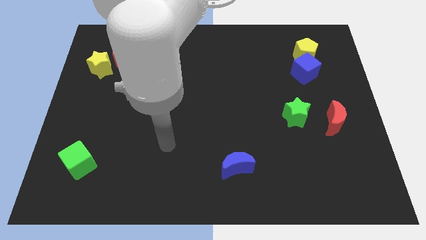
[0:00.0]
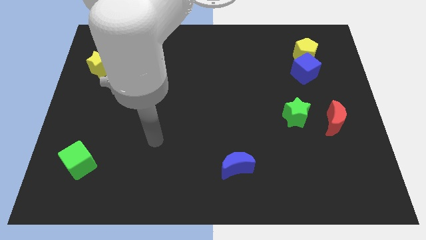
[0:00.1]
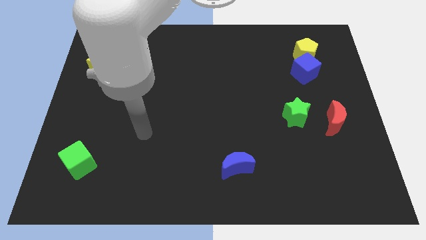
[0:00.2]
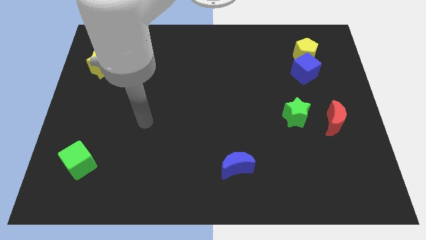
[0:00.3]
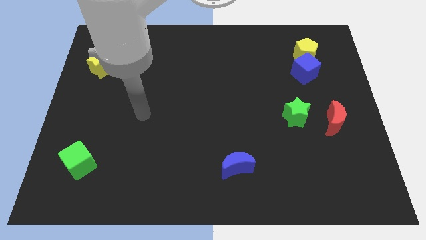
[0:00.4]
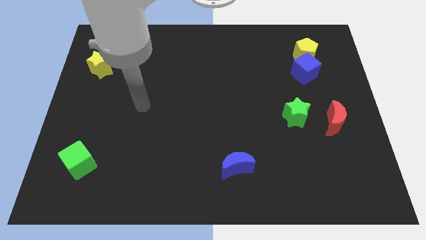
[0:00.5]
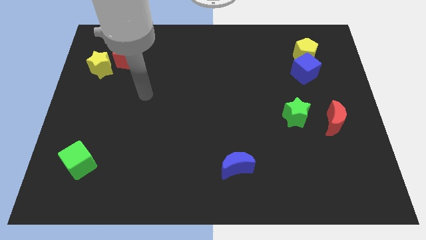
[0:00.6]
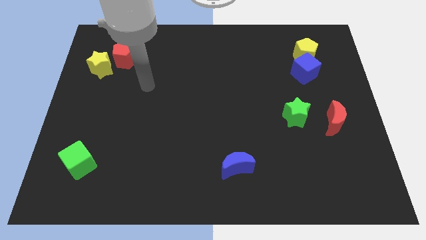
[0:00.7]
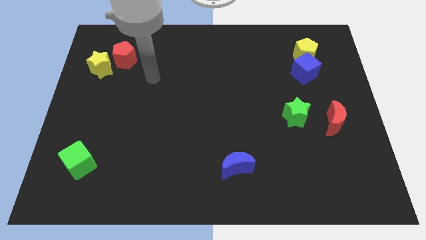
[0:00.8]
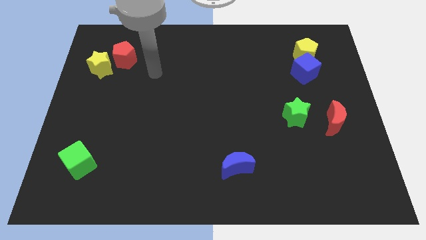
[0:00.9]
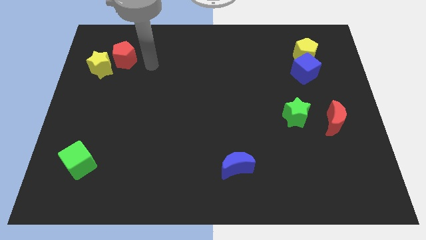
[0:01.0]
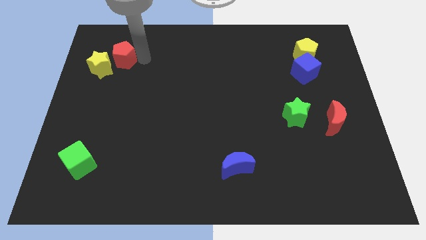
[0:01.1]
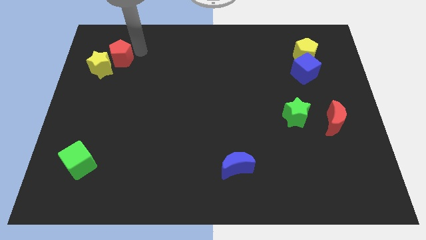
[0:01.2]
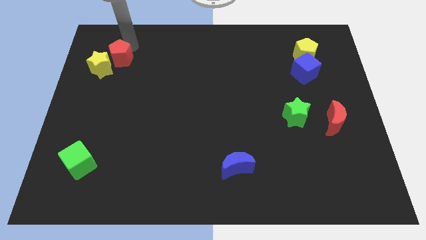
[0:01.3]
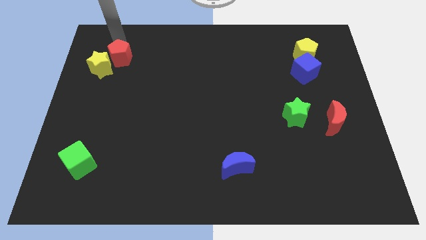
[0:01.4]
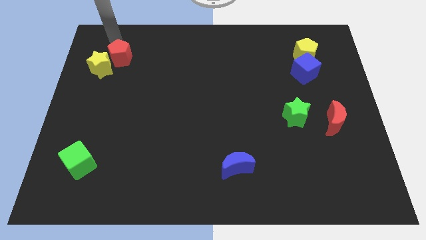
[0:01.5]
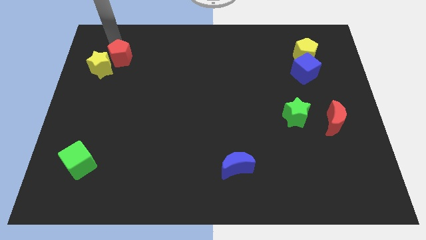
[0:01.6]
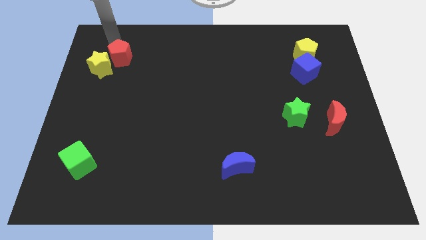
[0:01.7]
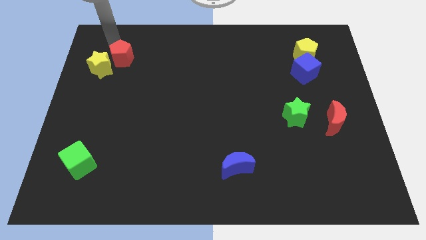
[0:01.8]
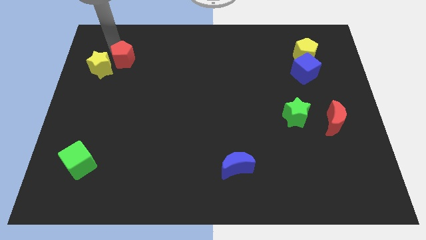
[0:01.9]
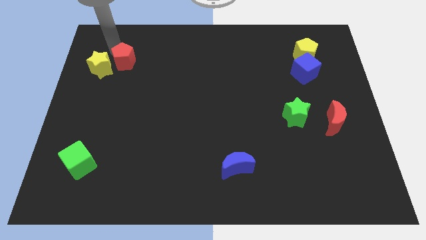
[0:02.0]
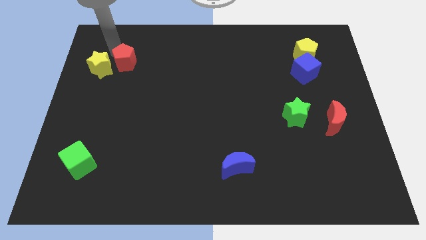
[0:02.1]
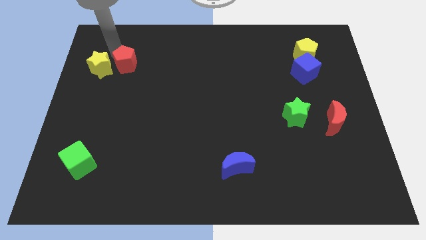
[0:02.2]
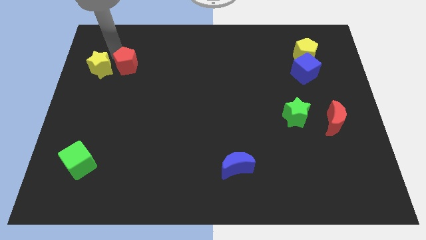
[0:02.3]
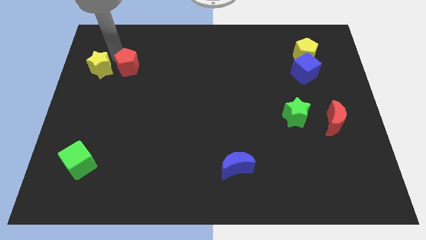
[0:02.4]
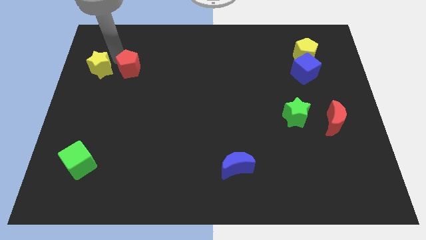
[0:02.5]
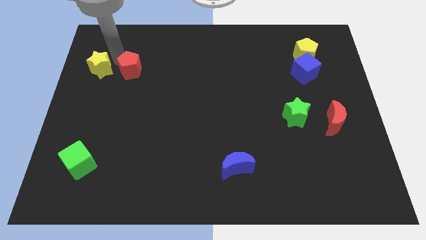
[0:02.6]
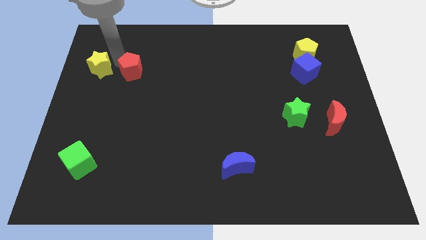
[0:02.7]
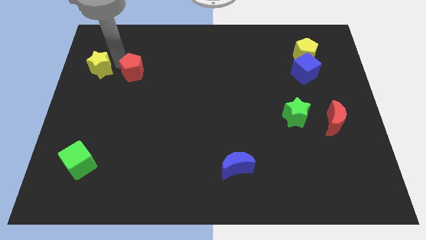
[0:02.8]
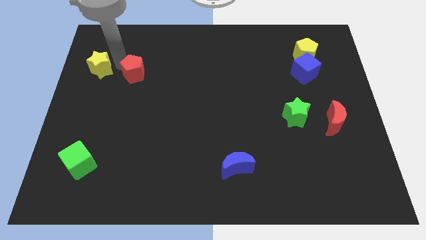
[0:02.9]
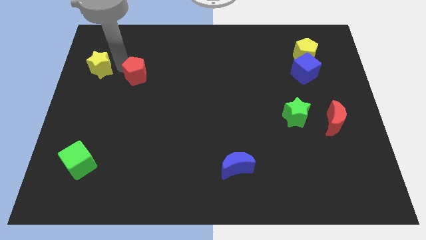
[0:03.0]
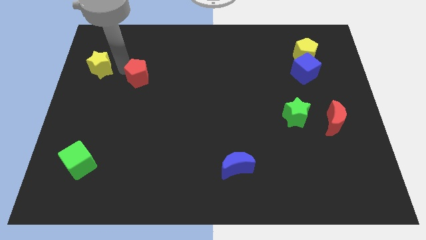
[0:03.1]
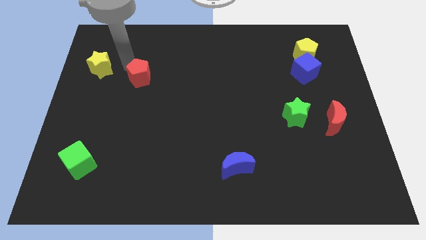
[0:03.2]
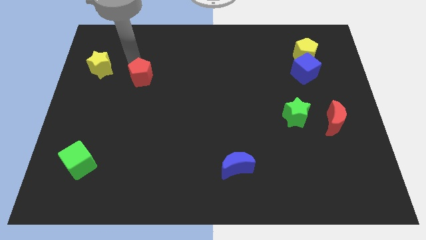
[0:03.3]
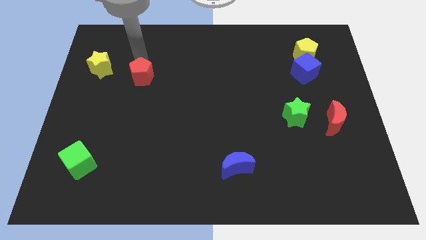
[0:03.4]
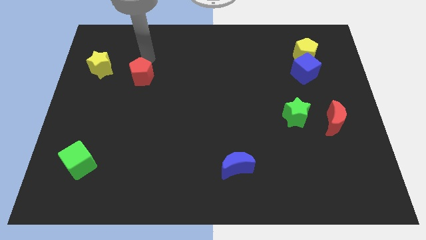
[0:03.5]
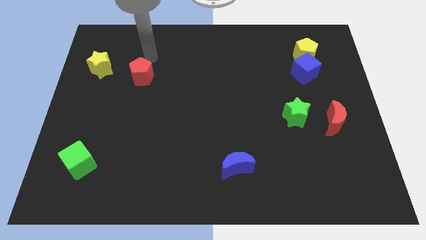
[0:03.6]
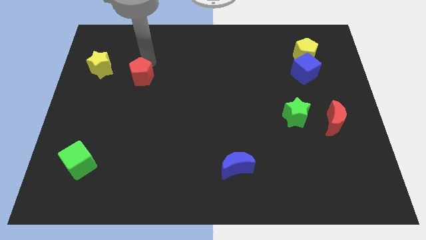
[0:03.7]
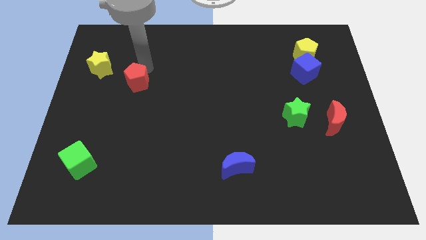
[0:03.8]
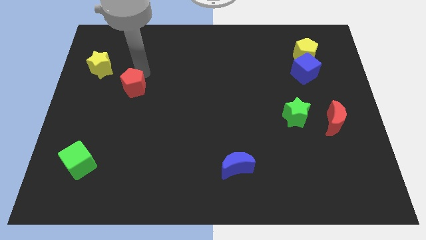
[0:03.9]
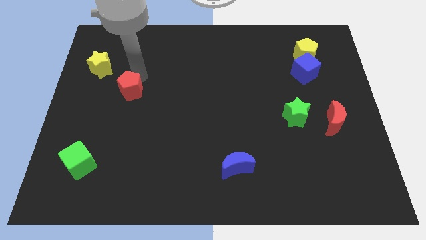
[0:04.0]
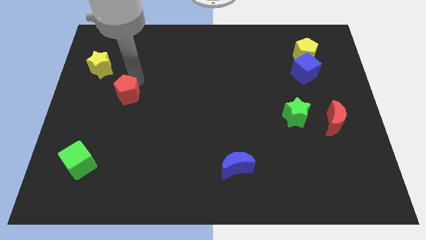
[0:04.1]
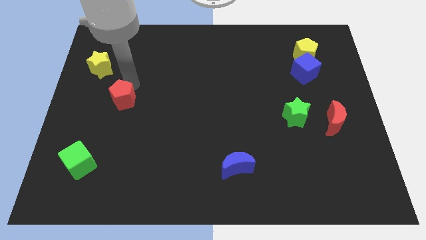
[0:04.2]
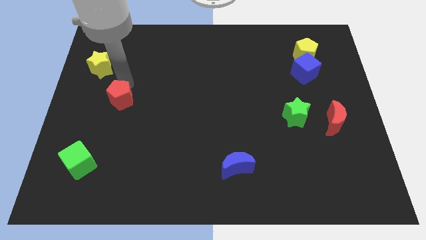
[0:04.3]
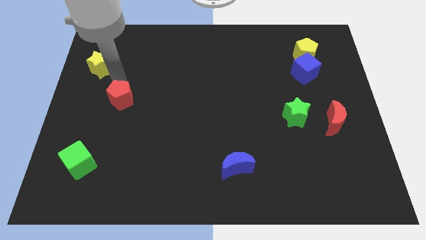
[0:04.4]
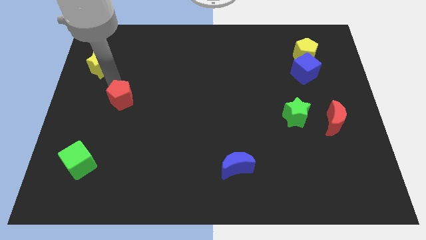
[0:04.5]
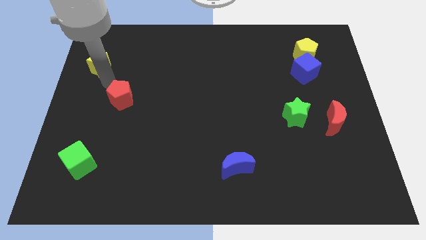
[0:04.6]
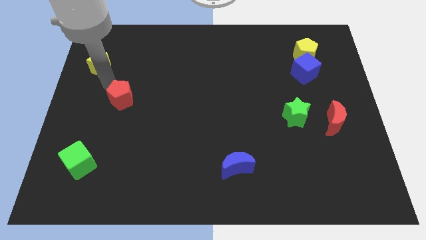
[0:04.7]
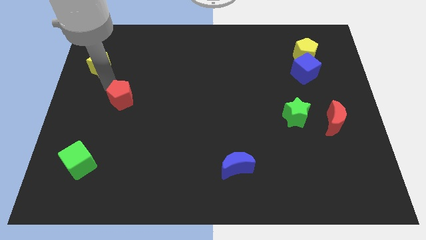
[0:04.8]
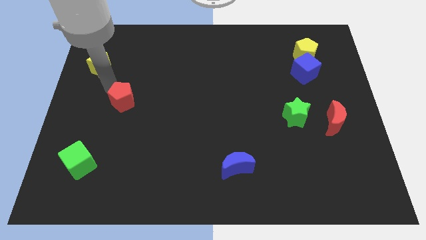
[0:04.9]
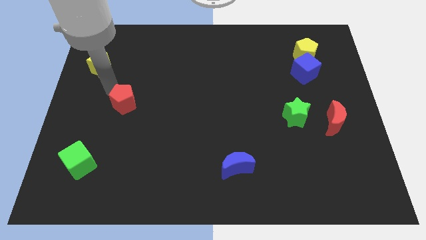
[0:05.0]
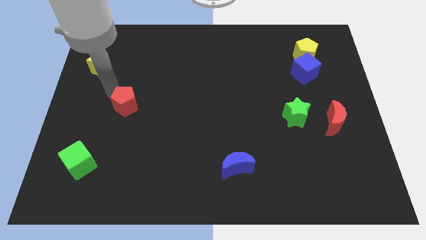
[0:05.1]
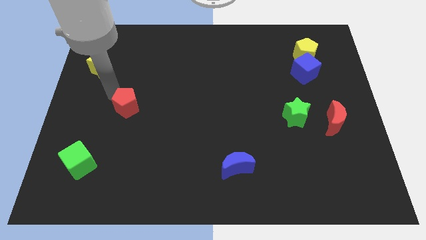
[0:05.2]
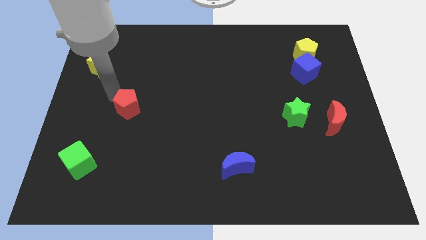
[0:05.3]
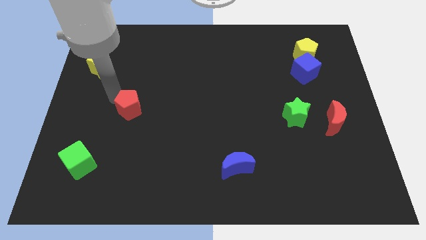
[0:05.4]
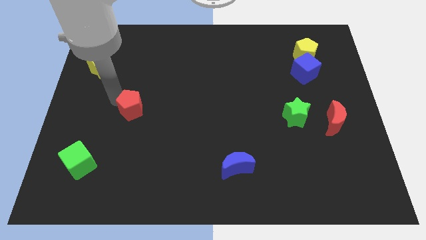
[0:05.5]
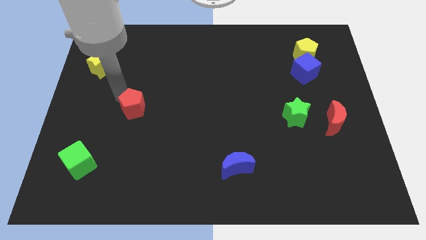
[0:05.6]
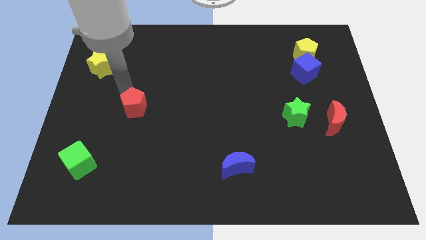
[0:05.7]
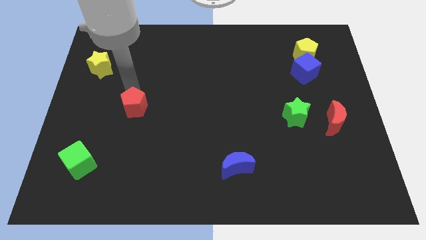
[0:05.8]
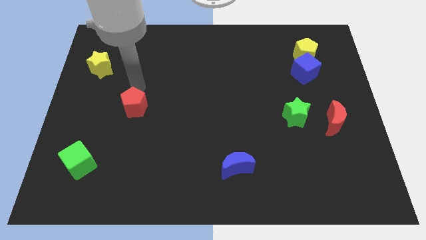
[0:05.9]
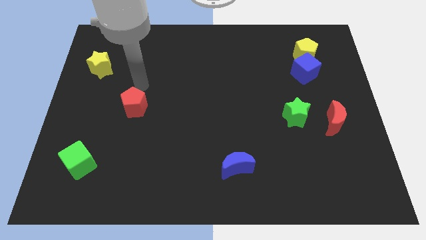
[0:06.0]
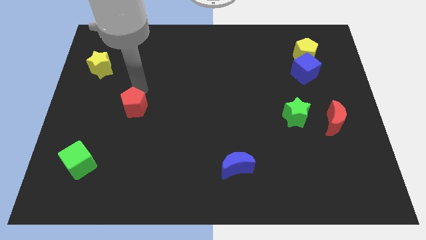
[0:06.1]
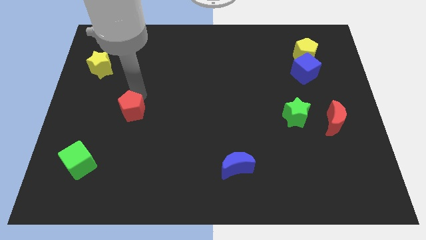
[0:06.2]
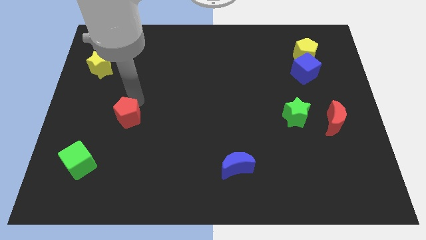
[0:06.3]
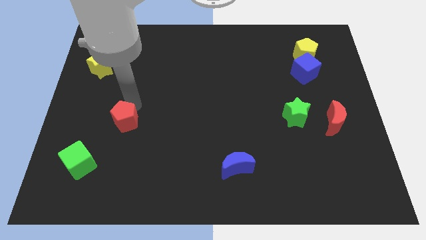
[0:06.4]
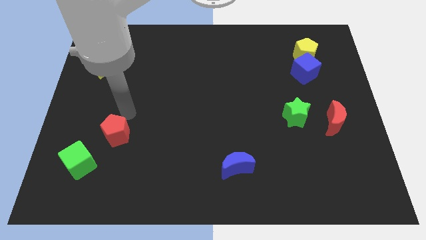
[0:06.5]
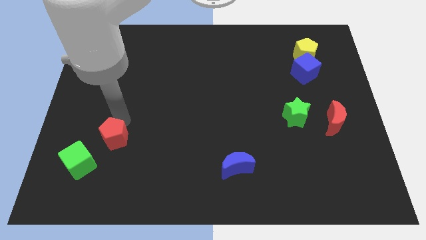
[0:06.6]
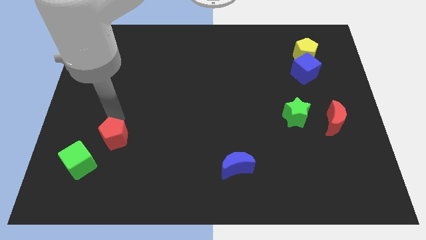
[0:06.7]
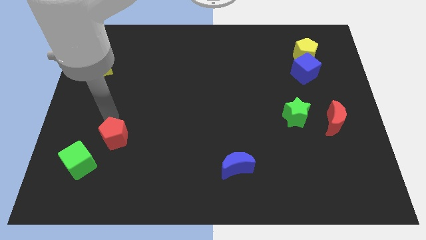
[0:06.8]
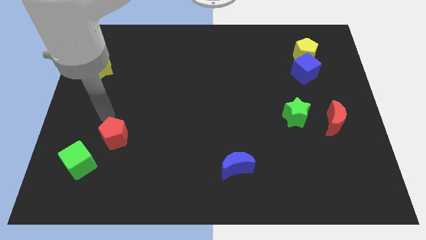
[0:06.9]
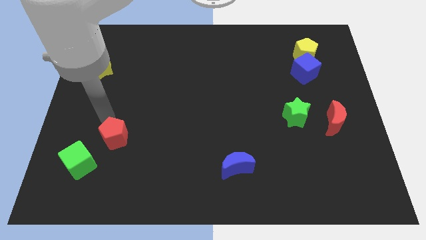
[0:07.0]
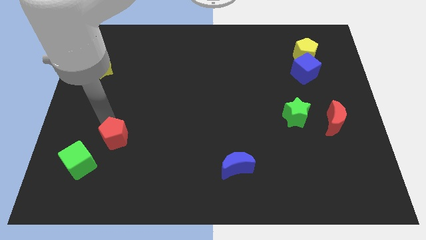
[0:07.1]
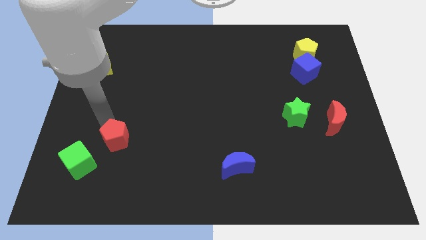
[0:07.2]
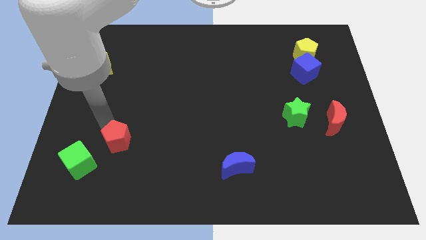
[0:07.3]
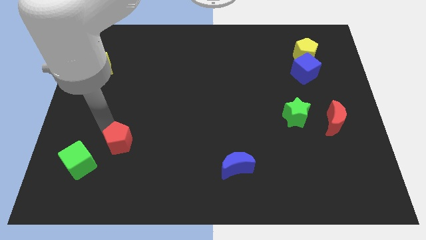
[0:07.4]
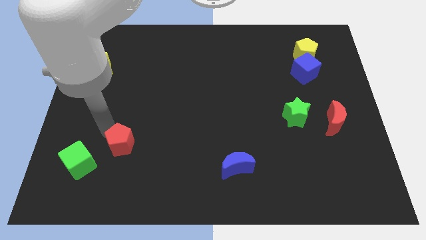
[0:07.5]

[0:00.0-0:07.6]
slide the red pentagon to the right side of the green cube

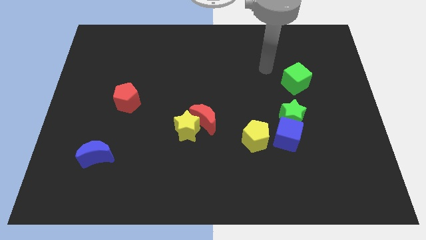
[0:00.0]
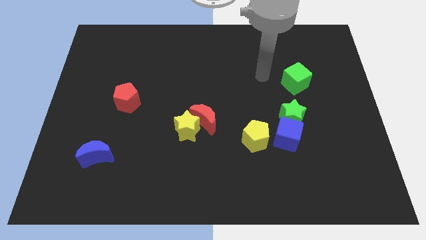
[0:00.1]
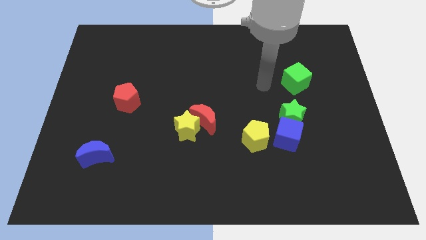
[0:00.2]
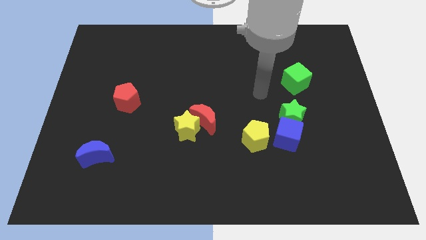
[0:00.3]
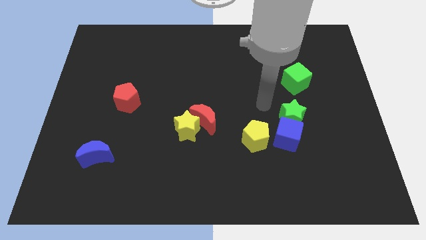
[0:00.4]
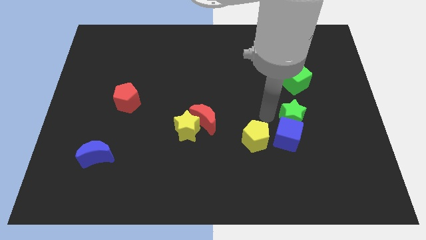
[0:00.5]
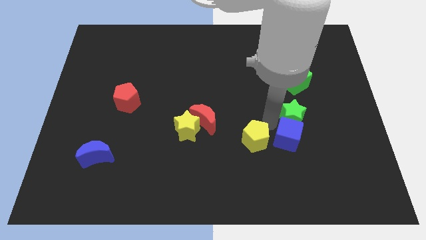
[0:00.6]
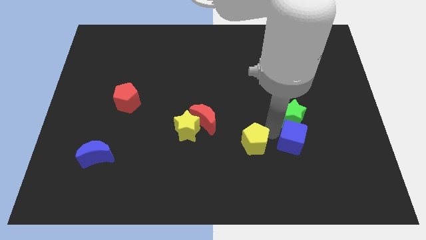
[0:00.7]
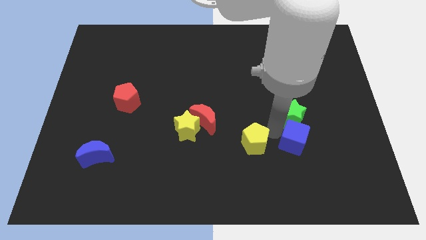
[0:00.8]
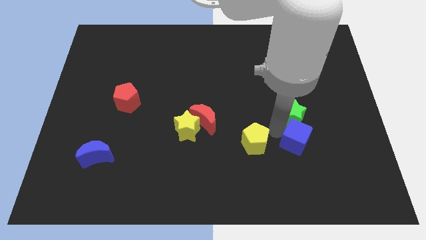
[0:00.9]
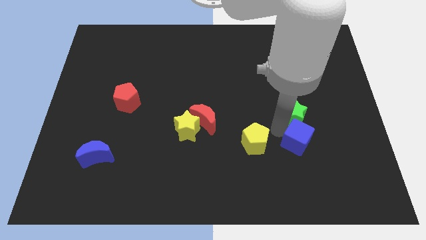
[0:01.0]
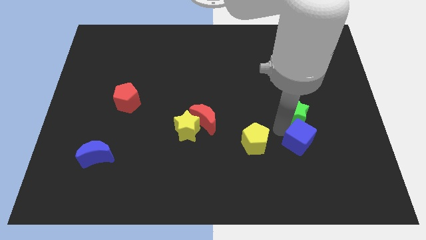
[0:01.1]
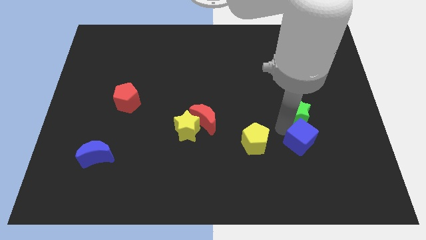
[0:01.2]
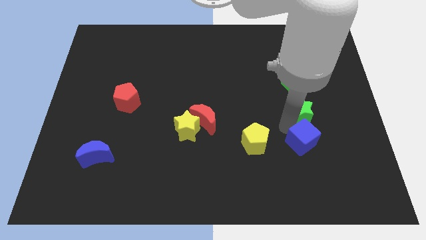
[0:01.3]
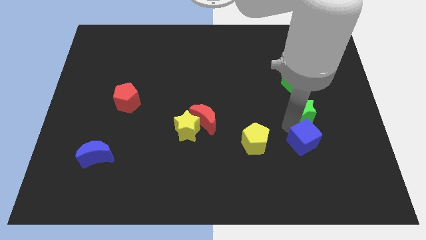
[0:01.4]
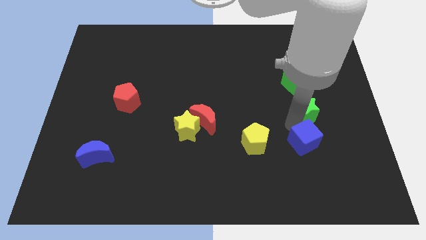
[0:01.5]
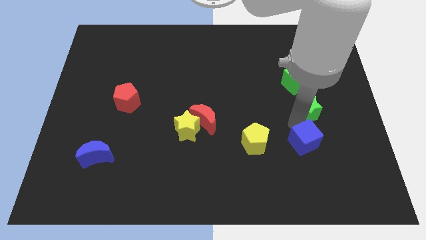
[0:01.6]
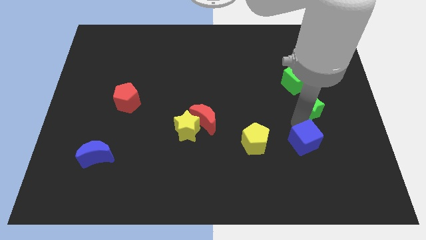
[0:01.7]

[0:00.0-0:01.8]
push the green star to the bottom right of the green cube
